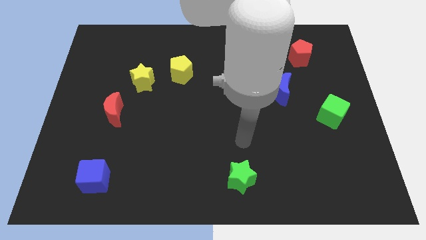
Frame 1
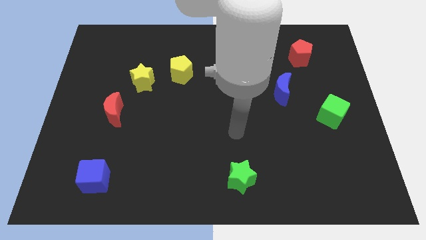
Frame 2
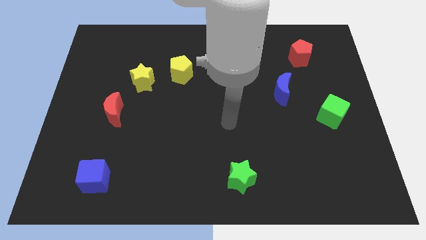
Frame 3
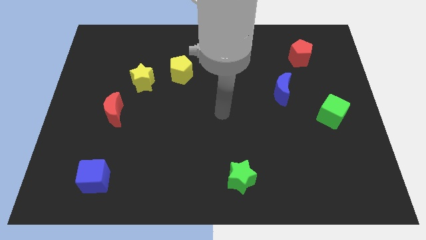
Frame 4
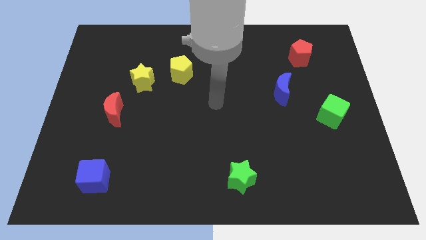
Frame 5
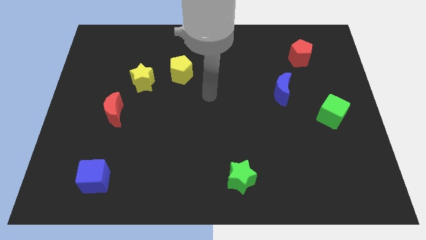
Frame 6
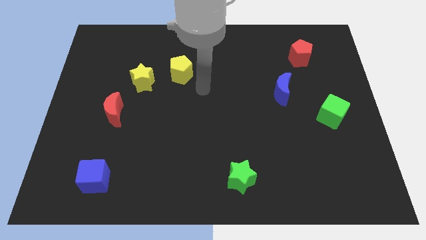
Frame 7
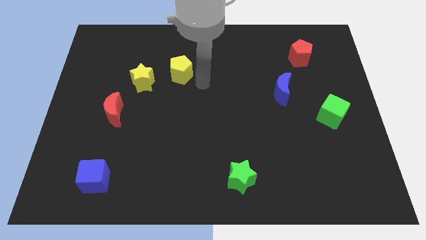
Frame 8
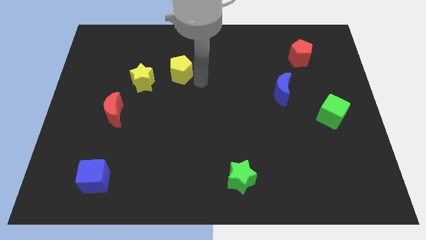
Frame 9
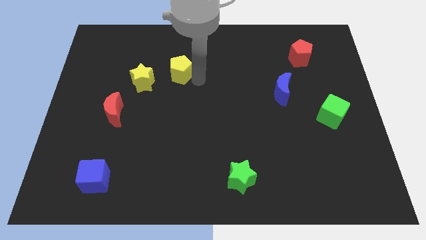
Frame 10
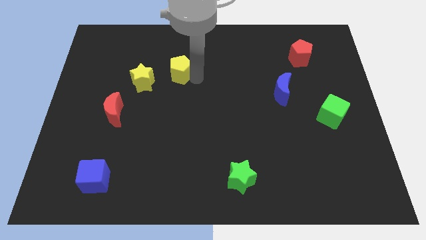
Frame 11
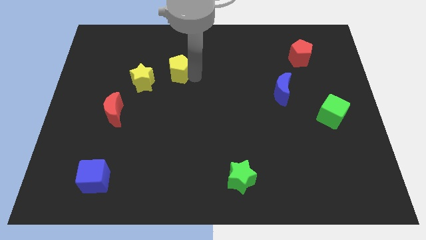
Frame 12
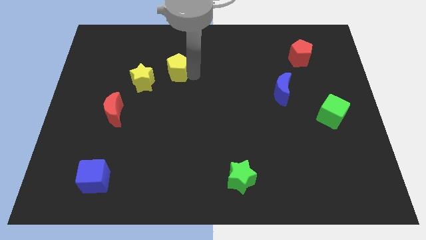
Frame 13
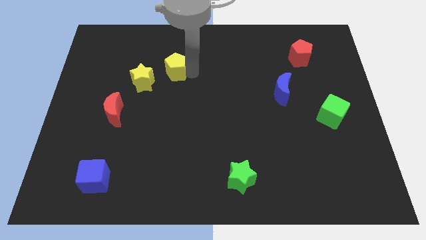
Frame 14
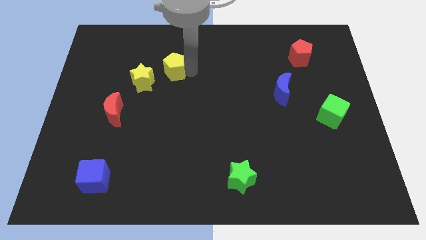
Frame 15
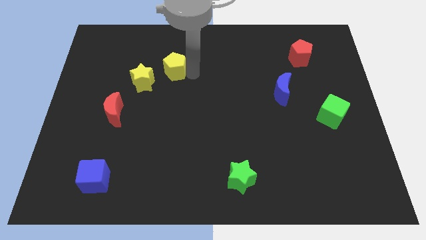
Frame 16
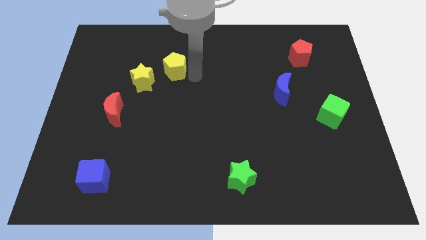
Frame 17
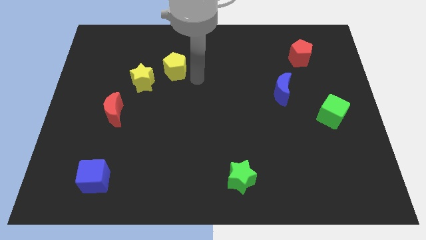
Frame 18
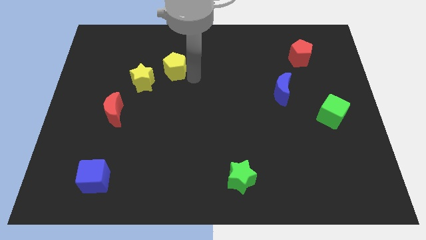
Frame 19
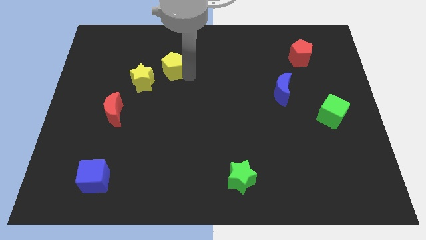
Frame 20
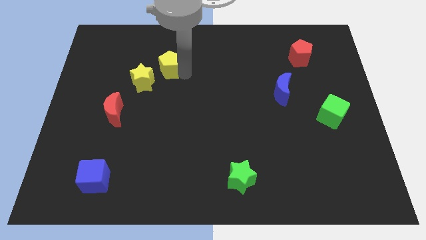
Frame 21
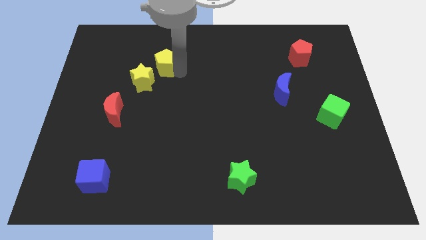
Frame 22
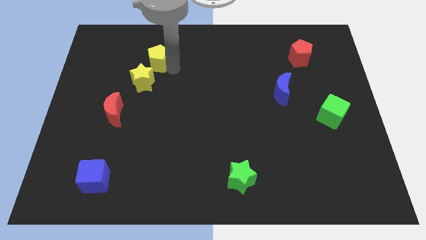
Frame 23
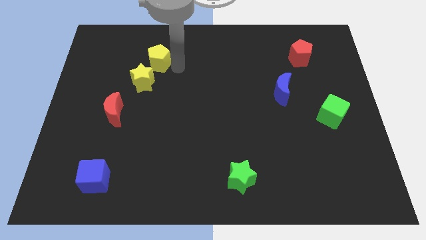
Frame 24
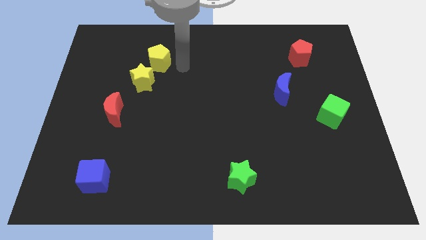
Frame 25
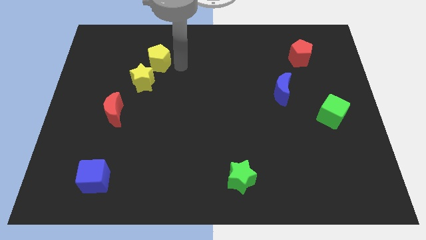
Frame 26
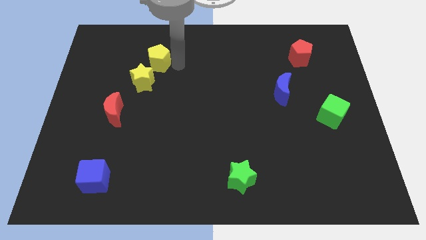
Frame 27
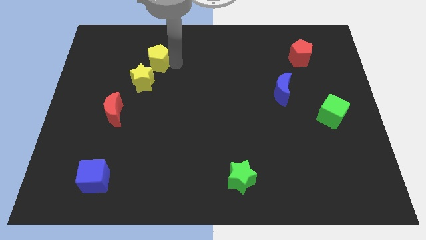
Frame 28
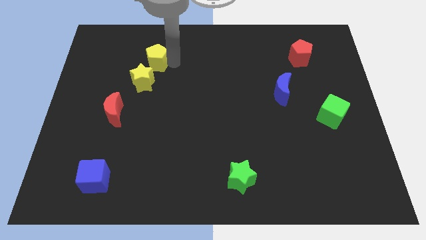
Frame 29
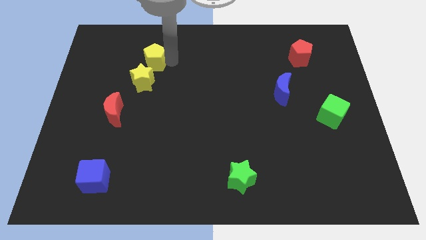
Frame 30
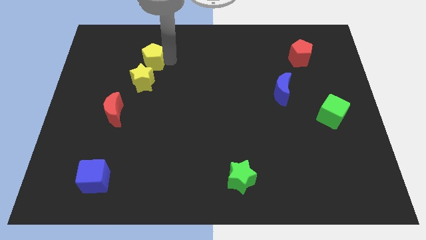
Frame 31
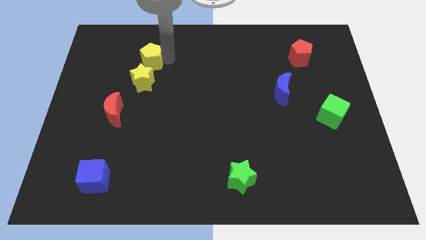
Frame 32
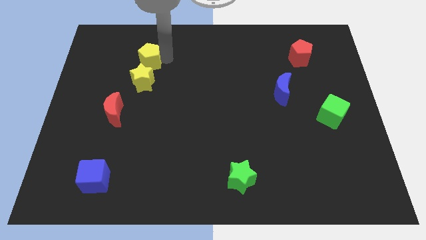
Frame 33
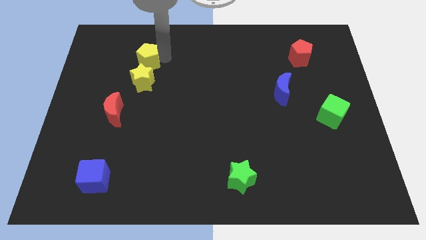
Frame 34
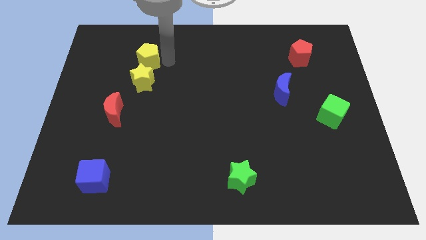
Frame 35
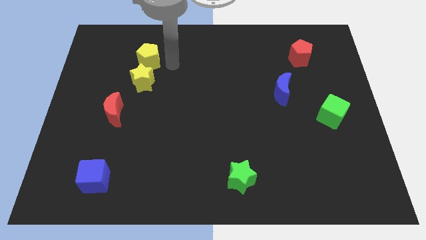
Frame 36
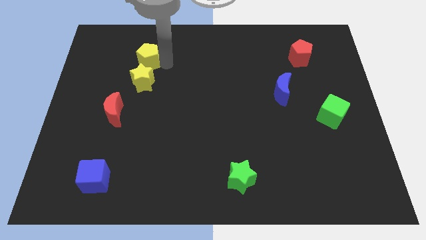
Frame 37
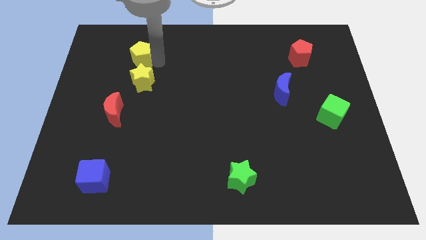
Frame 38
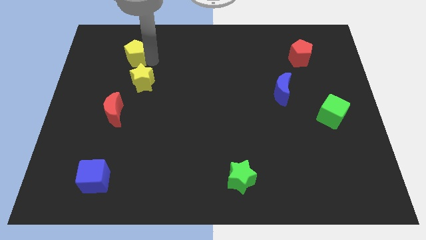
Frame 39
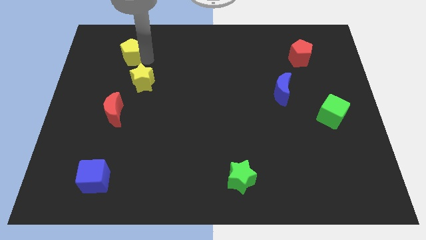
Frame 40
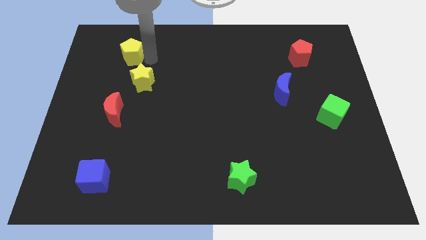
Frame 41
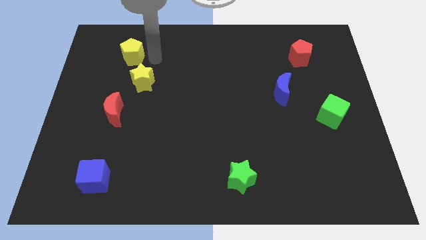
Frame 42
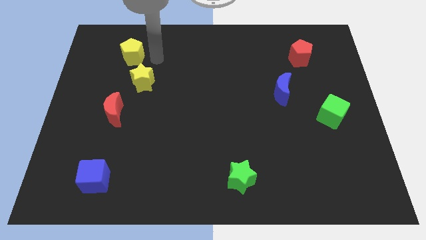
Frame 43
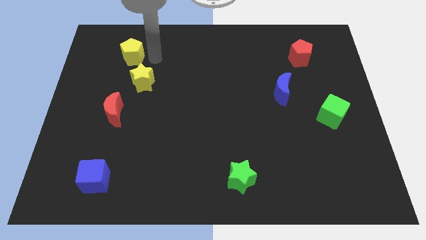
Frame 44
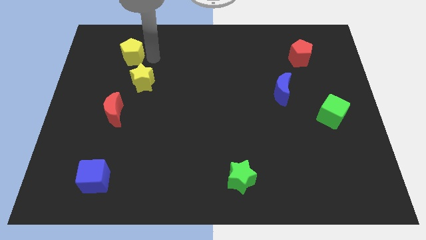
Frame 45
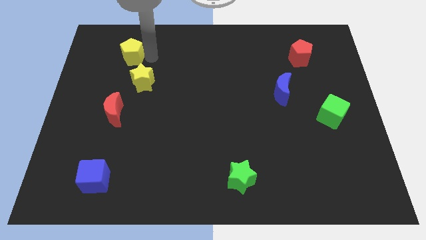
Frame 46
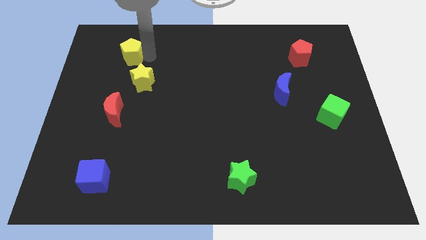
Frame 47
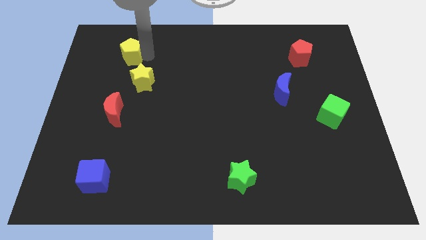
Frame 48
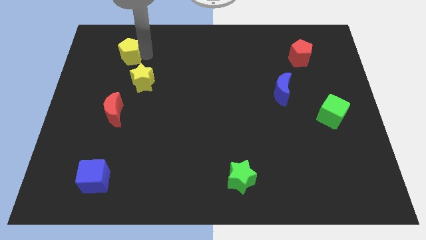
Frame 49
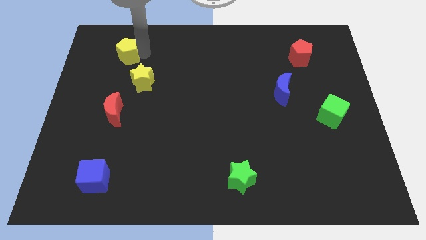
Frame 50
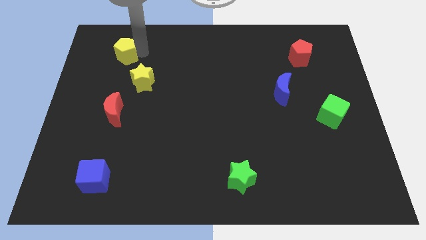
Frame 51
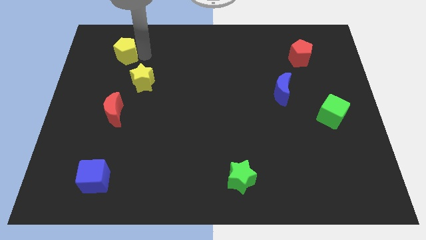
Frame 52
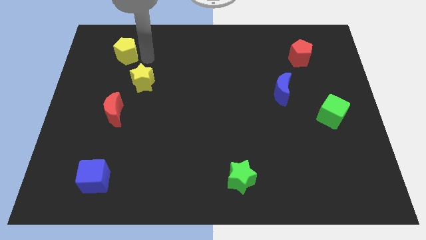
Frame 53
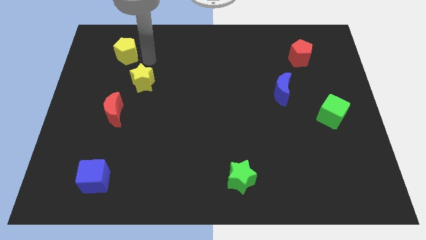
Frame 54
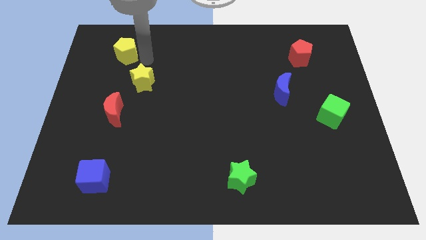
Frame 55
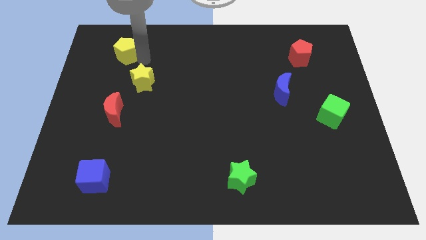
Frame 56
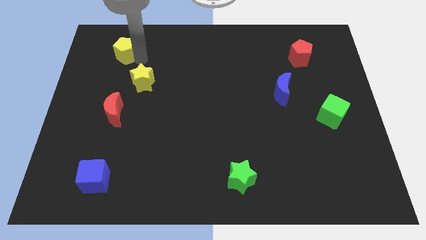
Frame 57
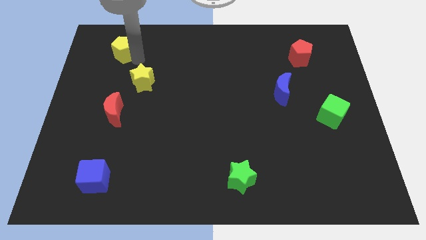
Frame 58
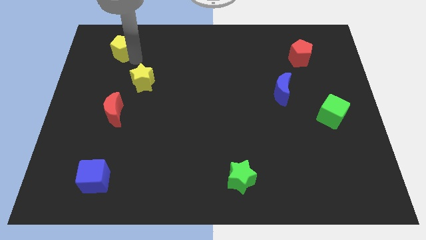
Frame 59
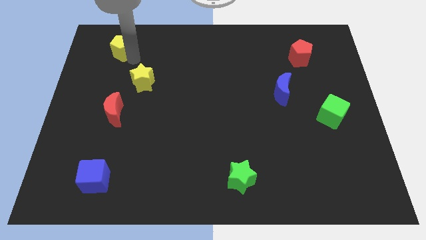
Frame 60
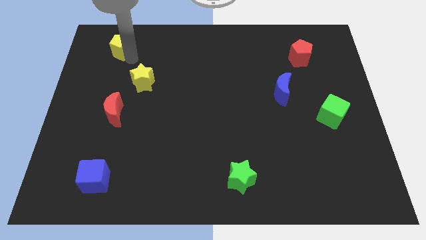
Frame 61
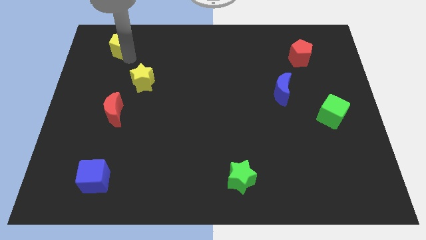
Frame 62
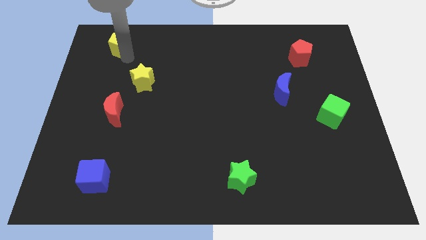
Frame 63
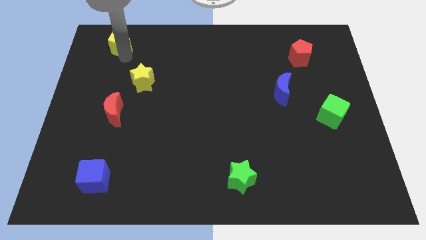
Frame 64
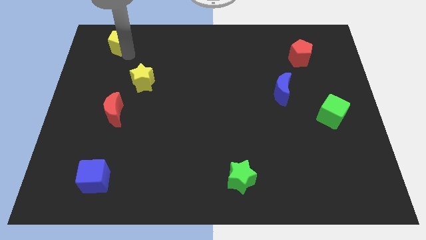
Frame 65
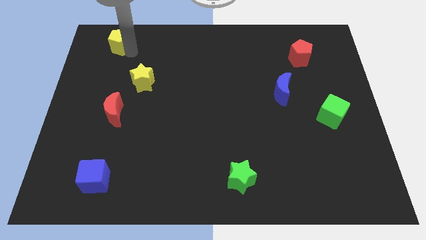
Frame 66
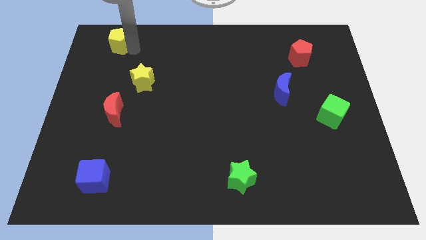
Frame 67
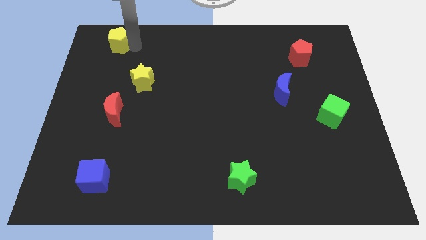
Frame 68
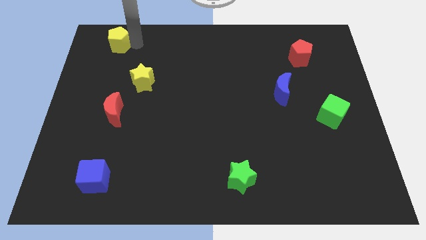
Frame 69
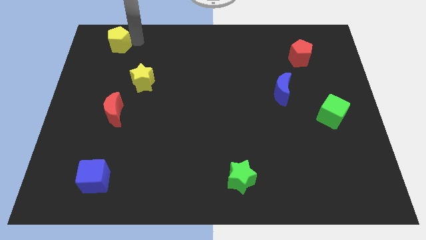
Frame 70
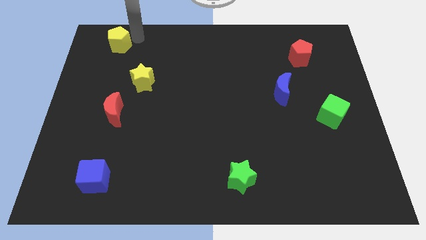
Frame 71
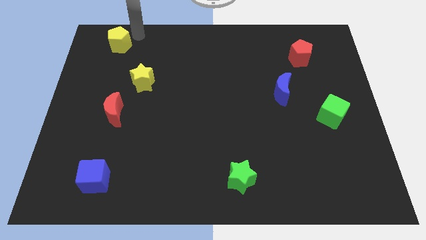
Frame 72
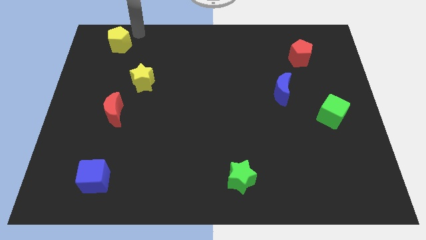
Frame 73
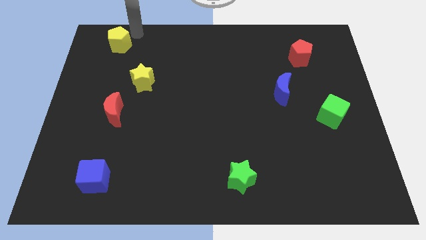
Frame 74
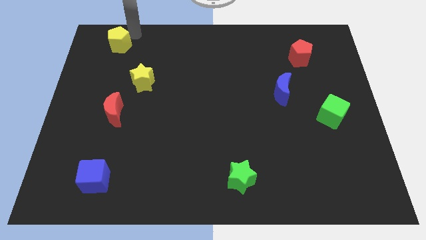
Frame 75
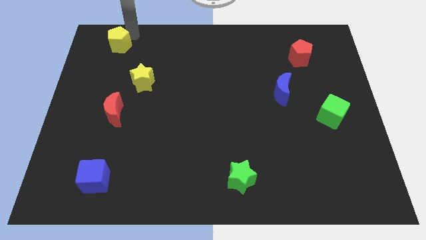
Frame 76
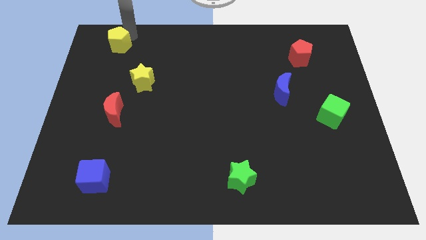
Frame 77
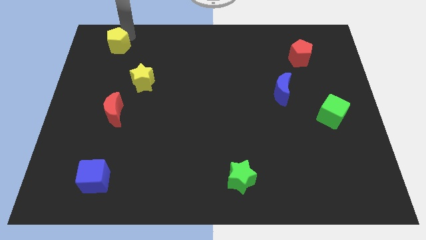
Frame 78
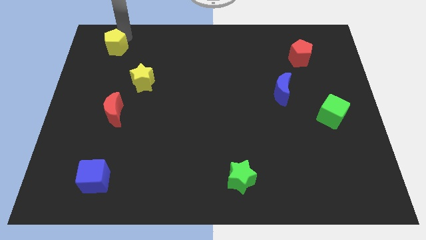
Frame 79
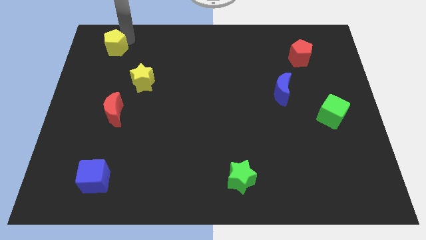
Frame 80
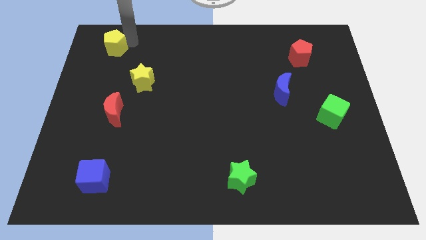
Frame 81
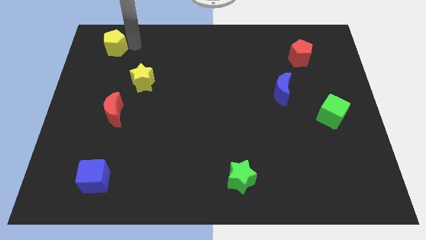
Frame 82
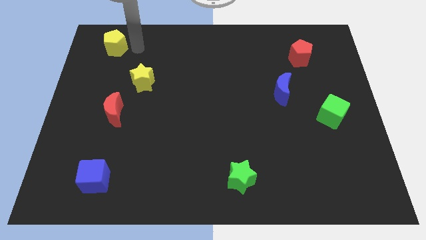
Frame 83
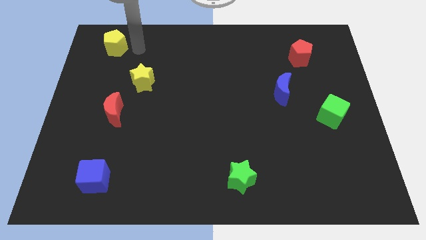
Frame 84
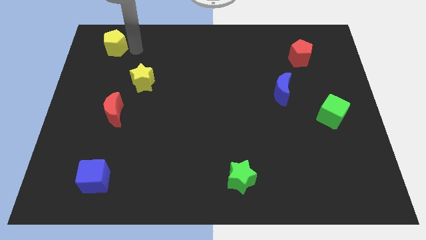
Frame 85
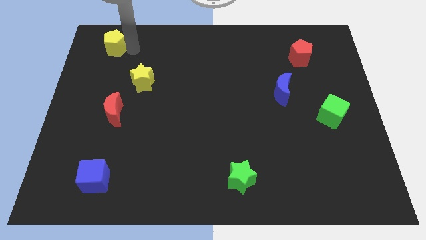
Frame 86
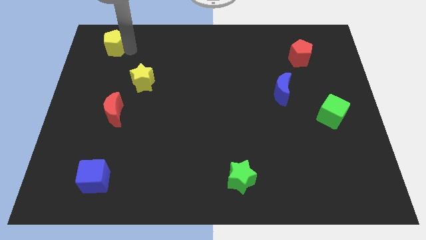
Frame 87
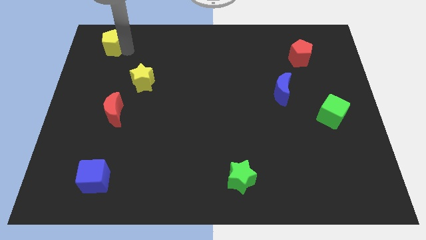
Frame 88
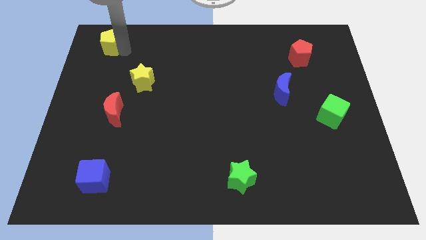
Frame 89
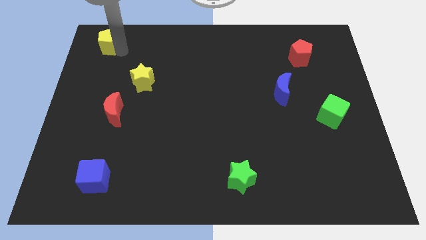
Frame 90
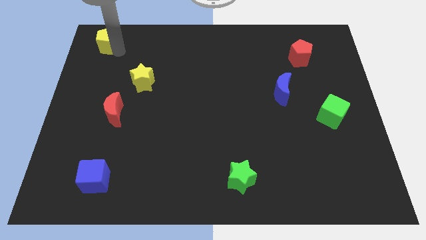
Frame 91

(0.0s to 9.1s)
push the yellow pentagon to the top left
